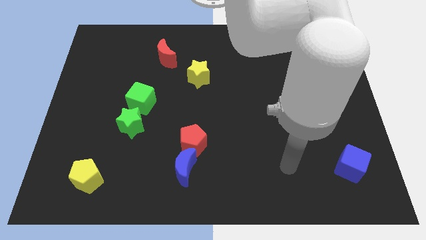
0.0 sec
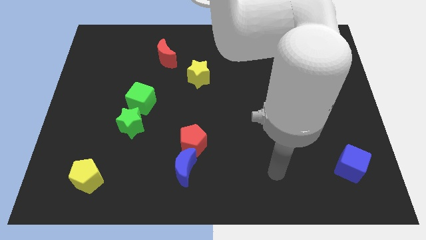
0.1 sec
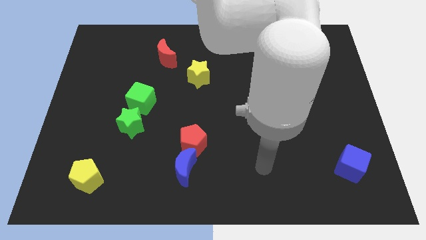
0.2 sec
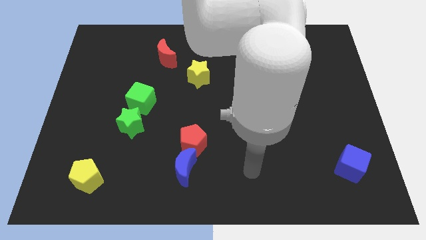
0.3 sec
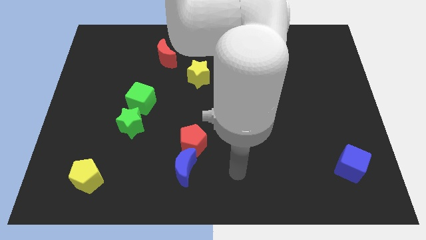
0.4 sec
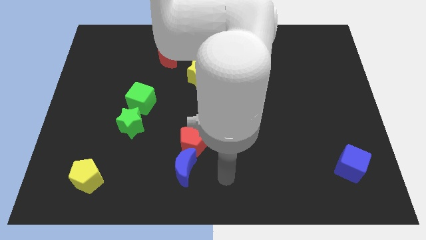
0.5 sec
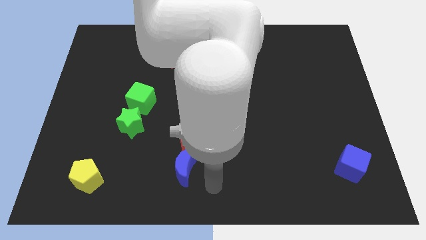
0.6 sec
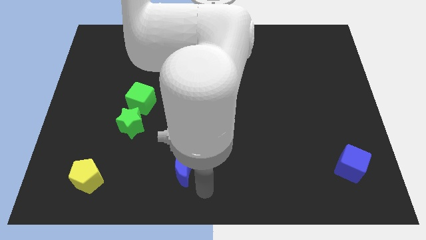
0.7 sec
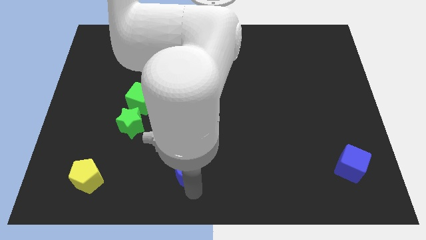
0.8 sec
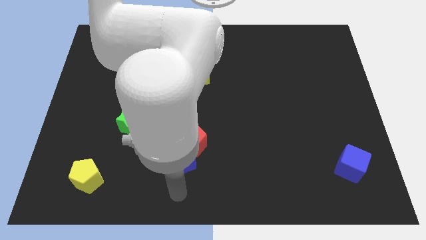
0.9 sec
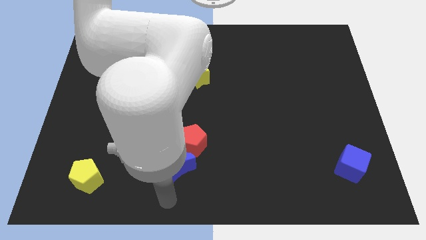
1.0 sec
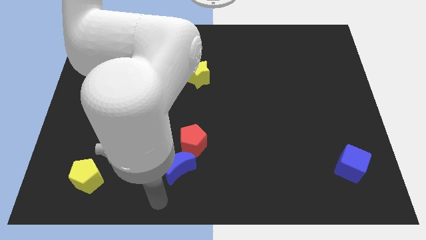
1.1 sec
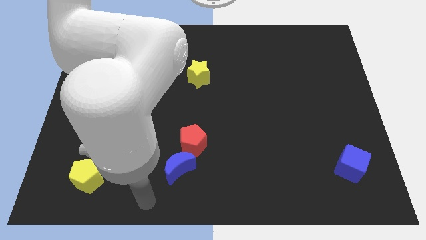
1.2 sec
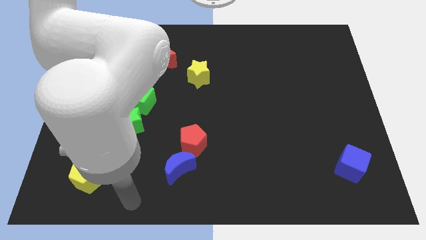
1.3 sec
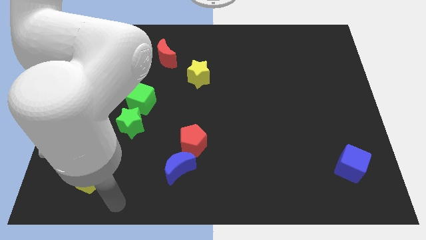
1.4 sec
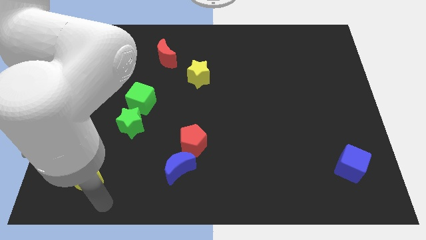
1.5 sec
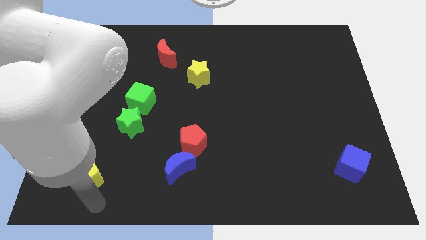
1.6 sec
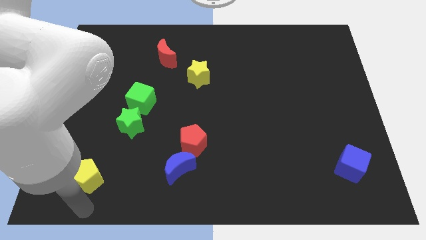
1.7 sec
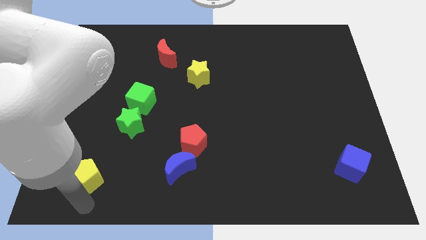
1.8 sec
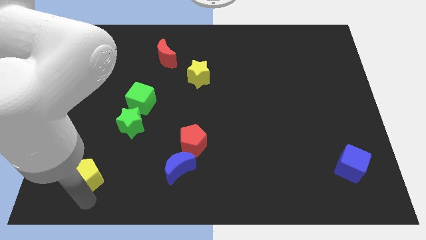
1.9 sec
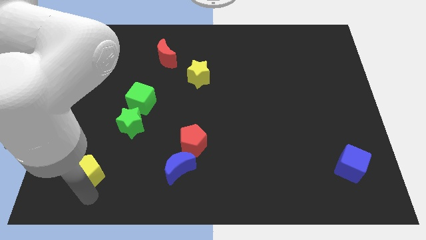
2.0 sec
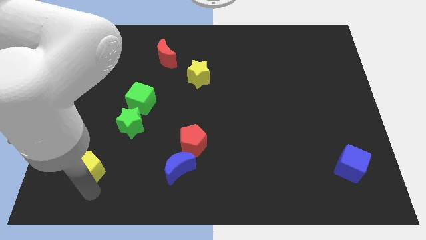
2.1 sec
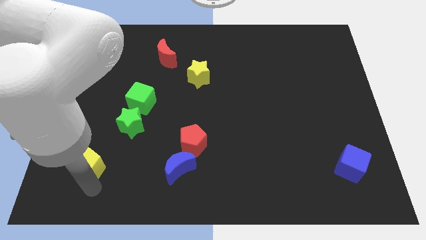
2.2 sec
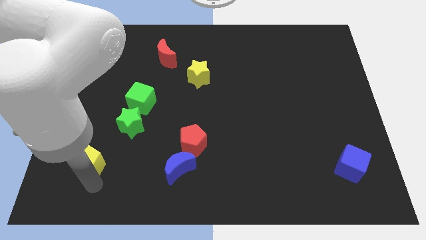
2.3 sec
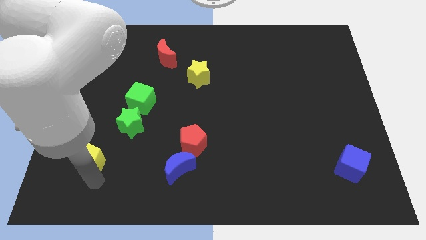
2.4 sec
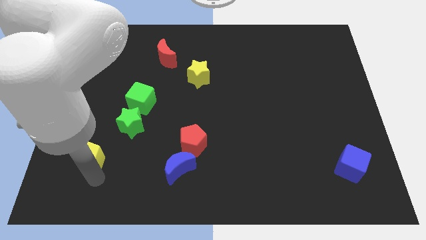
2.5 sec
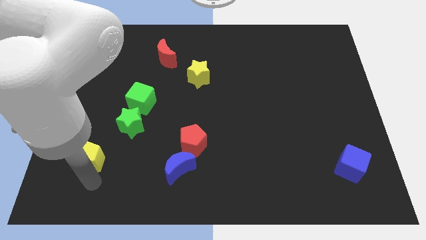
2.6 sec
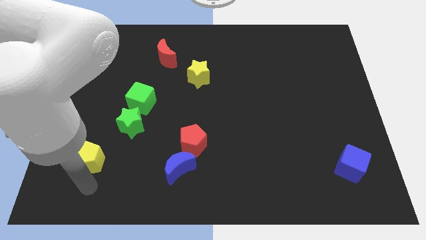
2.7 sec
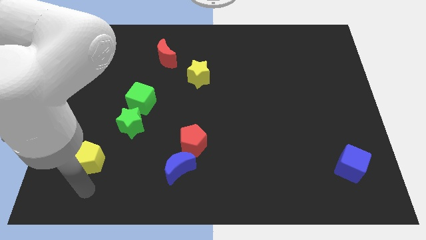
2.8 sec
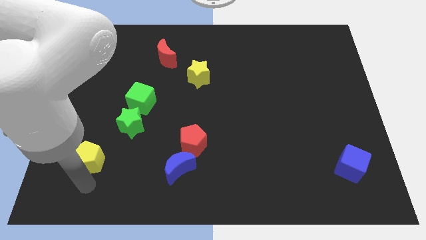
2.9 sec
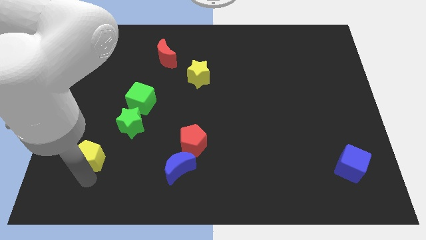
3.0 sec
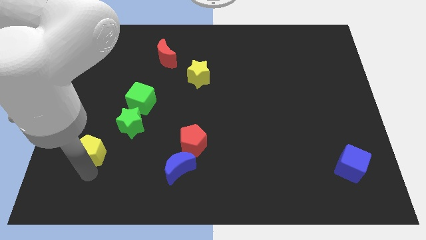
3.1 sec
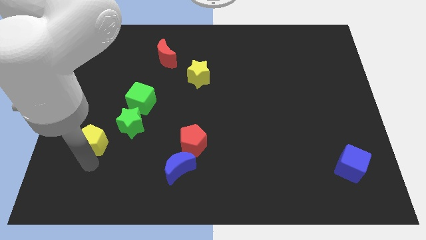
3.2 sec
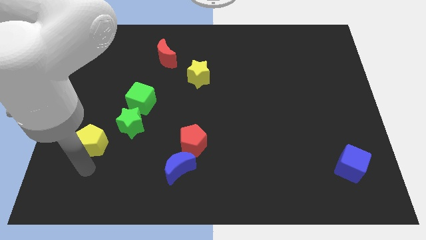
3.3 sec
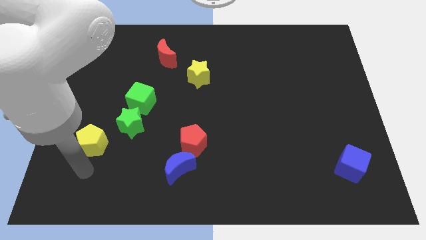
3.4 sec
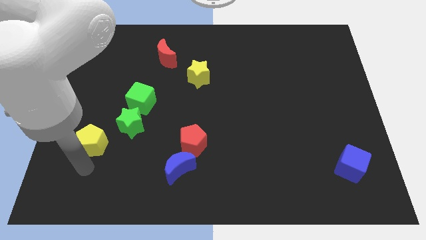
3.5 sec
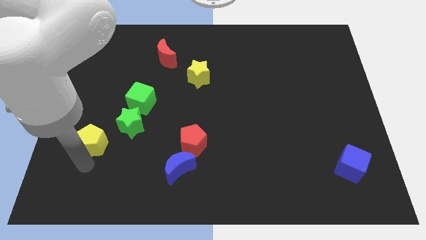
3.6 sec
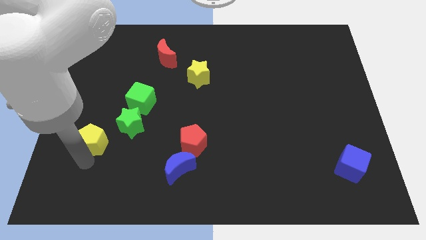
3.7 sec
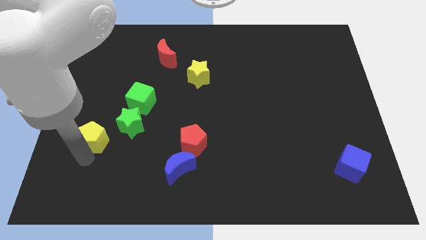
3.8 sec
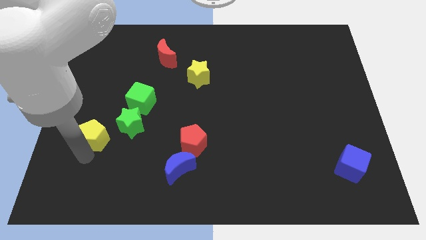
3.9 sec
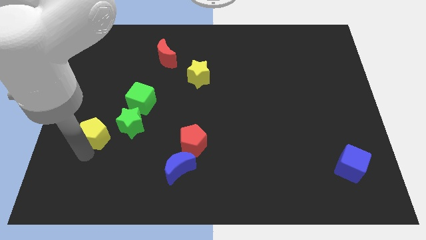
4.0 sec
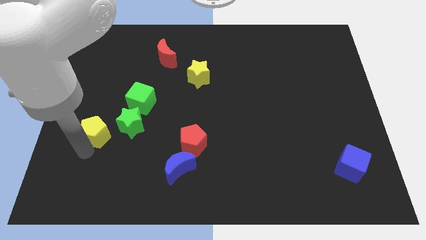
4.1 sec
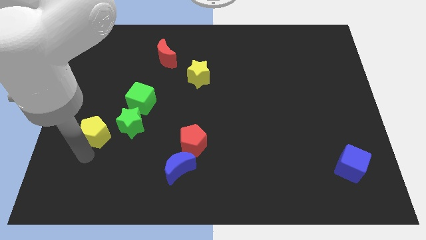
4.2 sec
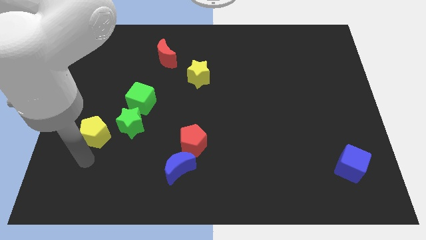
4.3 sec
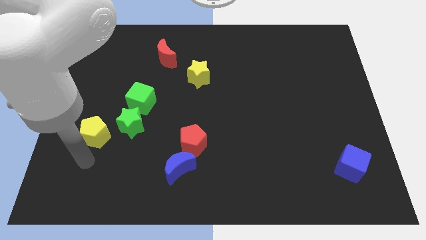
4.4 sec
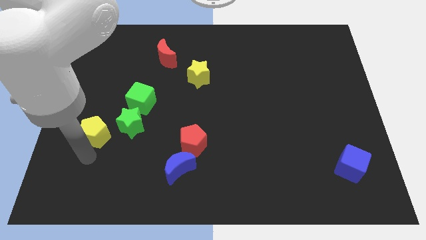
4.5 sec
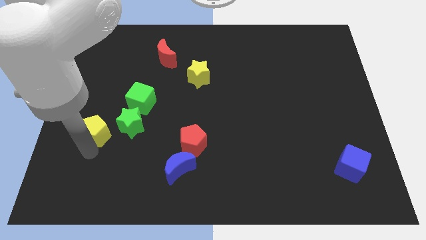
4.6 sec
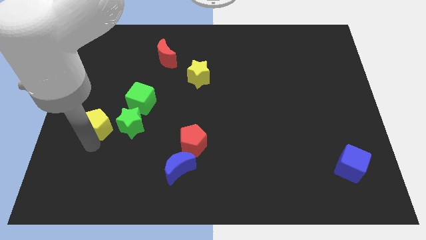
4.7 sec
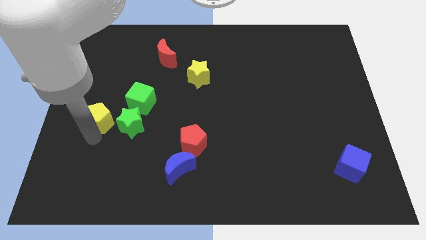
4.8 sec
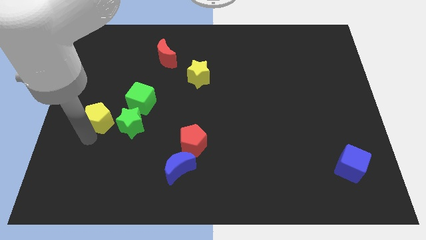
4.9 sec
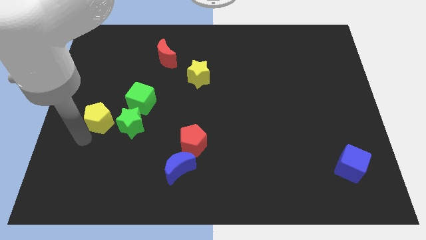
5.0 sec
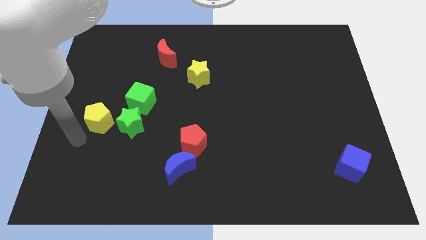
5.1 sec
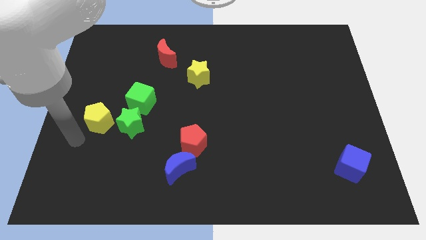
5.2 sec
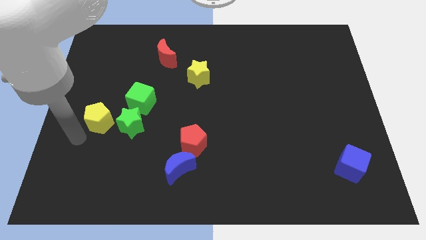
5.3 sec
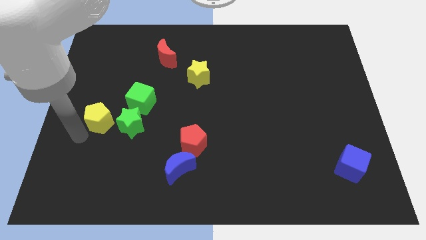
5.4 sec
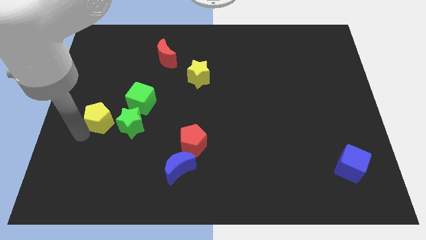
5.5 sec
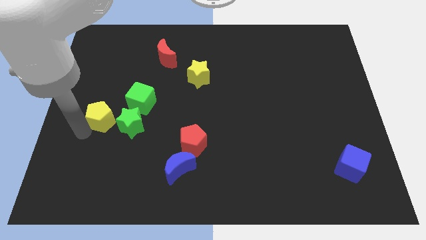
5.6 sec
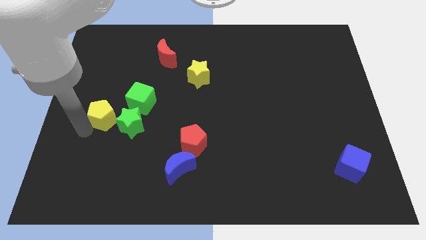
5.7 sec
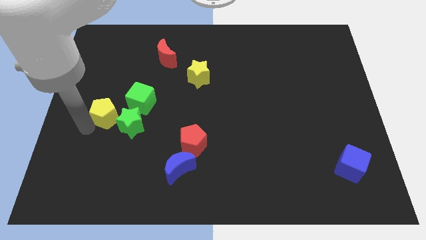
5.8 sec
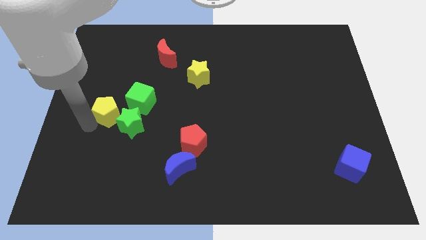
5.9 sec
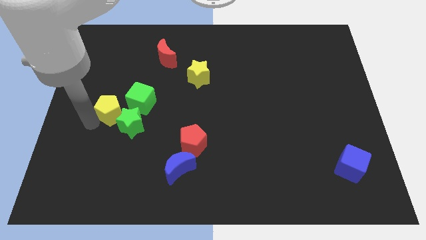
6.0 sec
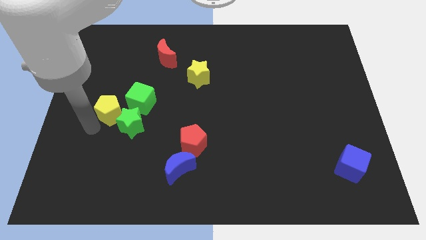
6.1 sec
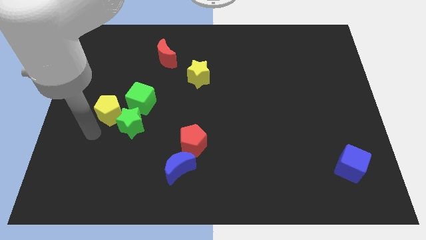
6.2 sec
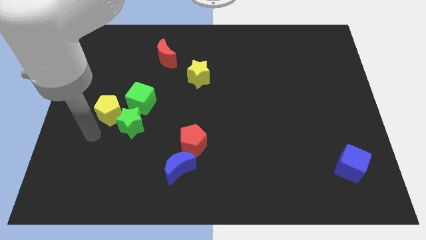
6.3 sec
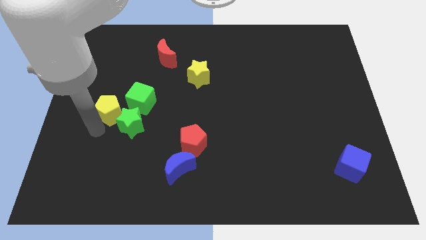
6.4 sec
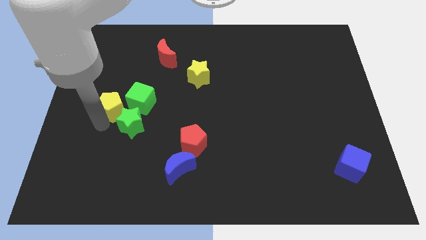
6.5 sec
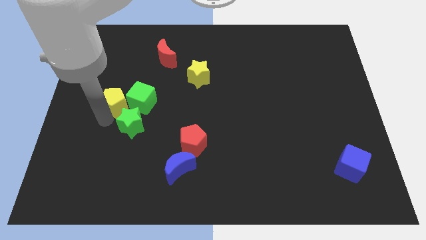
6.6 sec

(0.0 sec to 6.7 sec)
move the yellow pentagon to the top side of the green star

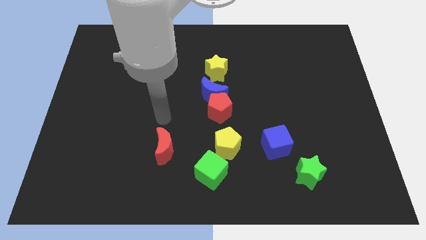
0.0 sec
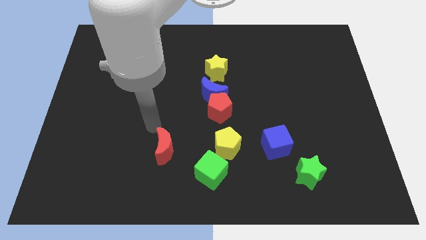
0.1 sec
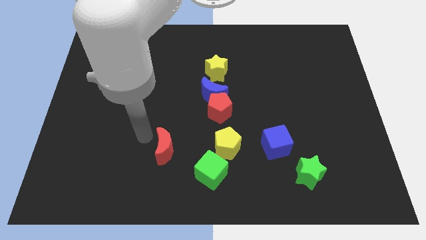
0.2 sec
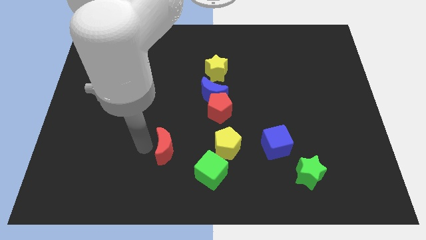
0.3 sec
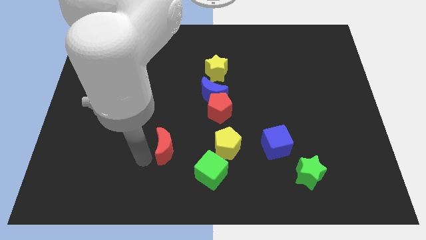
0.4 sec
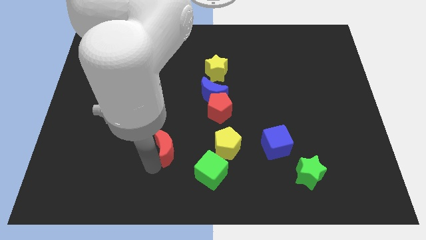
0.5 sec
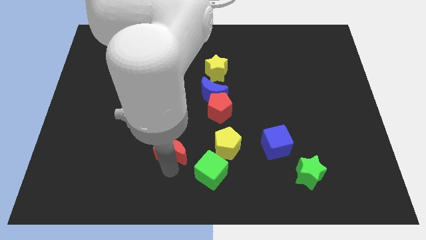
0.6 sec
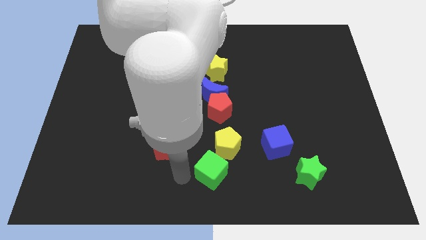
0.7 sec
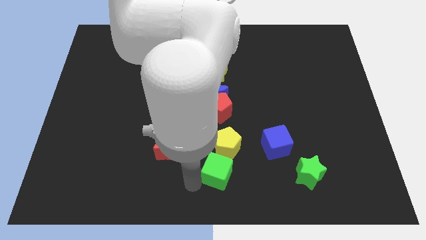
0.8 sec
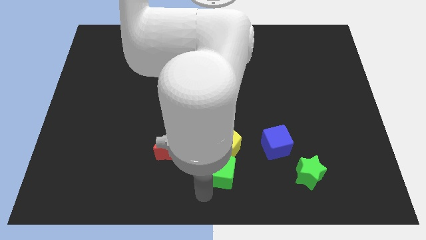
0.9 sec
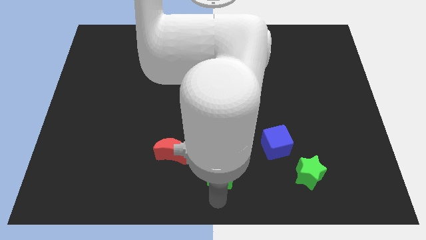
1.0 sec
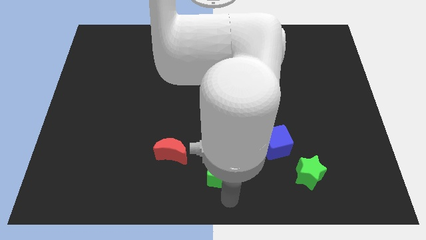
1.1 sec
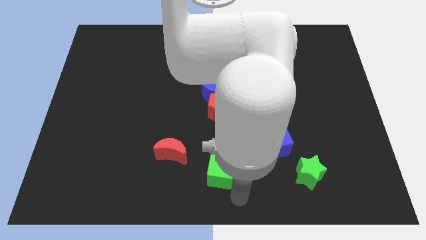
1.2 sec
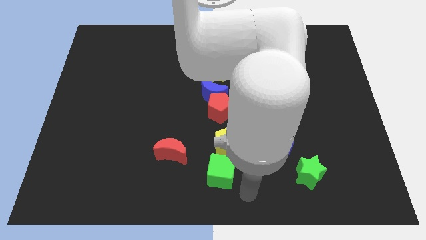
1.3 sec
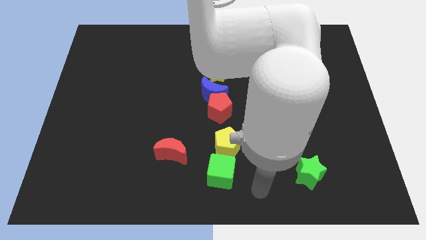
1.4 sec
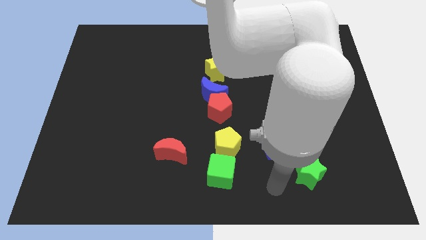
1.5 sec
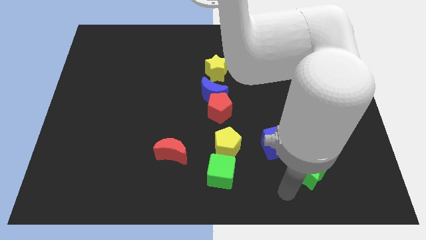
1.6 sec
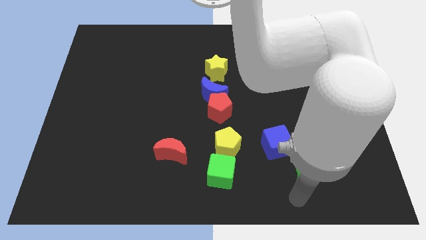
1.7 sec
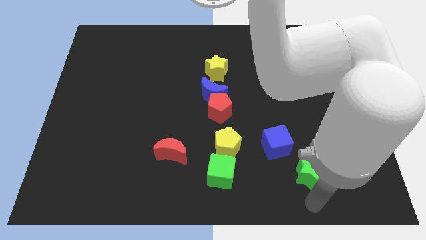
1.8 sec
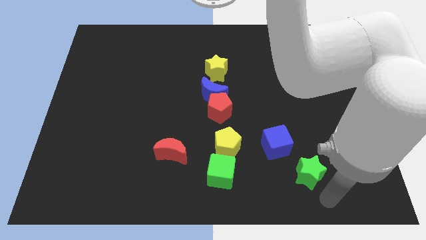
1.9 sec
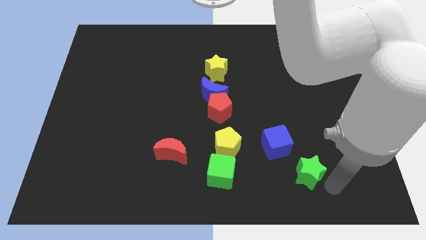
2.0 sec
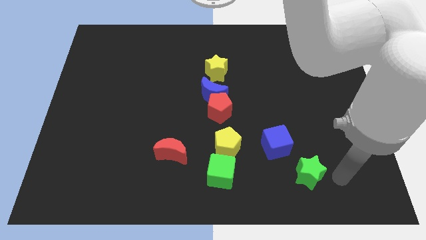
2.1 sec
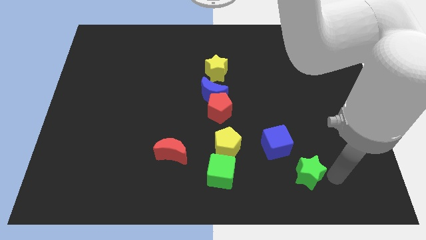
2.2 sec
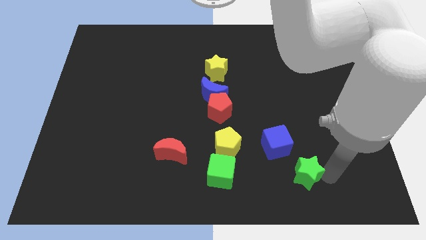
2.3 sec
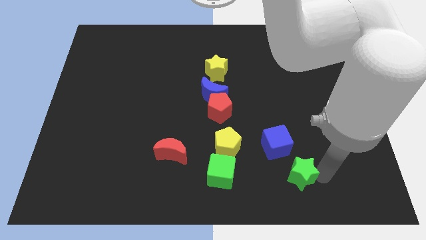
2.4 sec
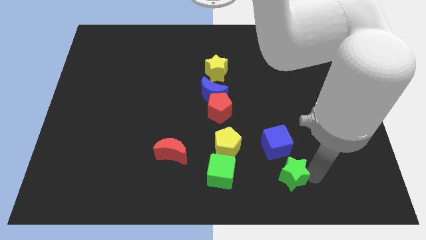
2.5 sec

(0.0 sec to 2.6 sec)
move the green star just right of the green cube
